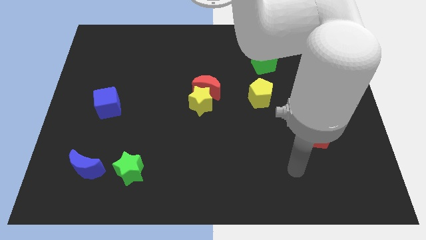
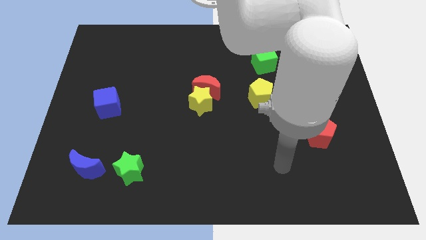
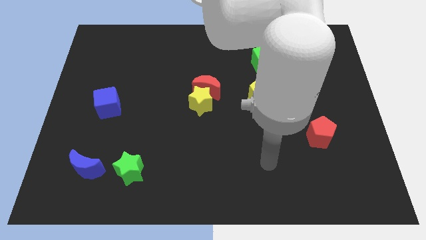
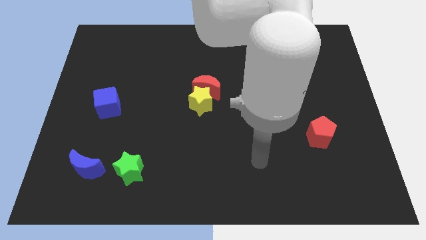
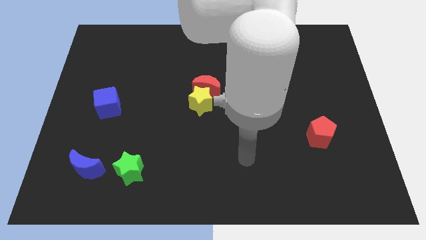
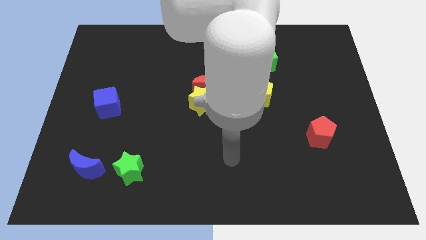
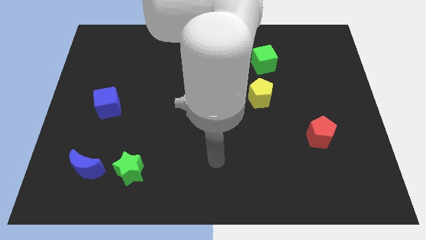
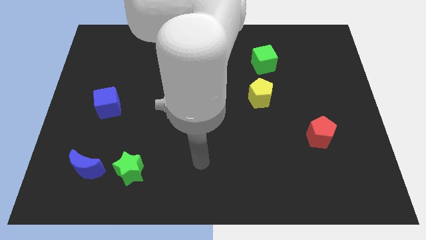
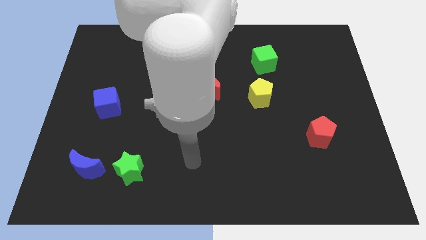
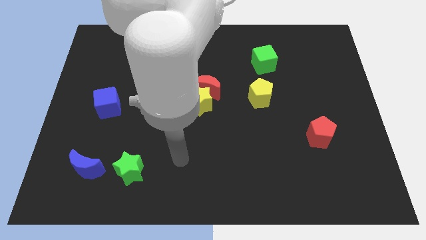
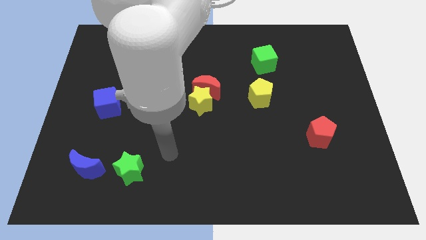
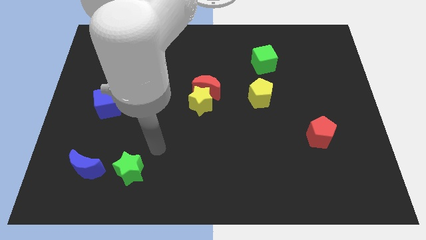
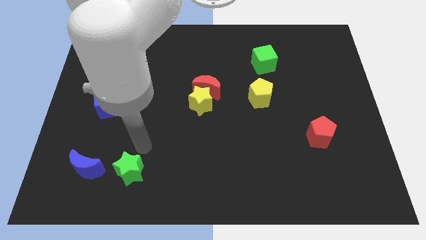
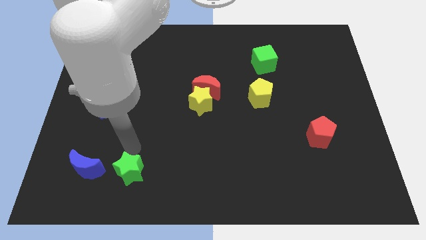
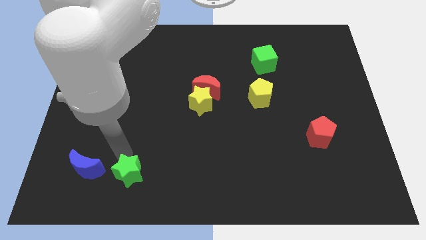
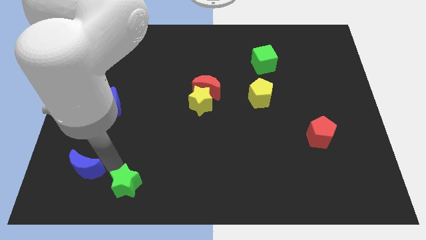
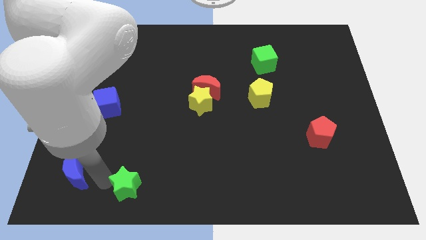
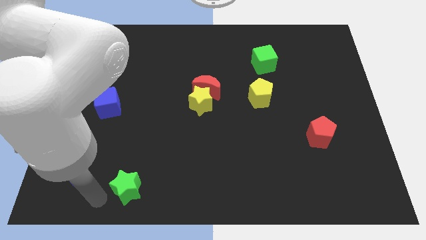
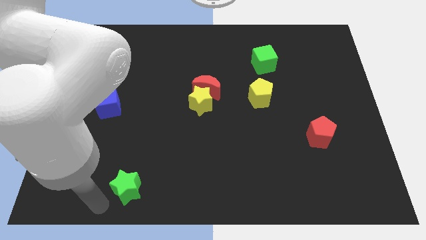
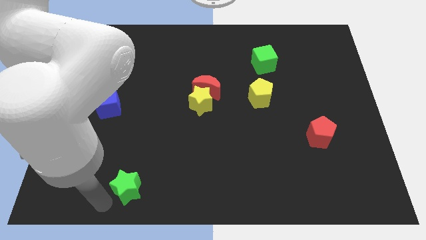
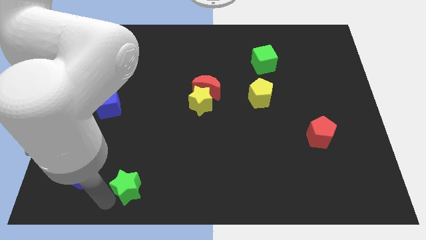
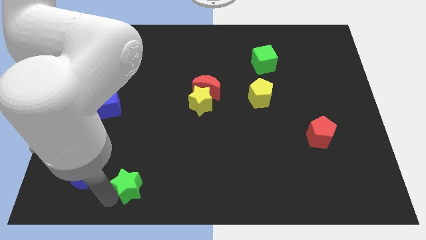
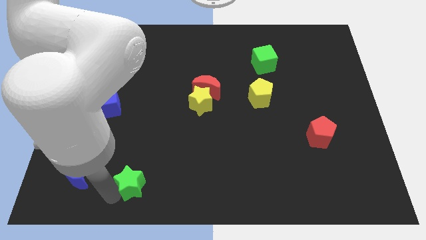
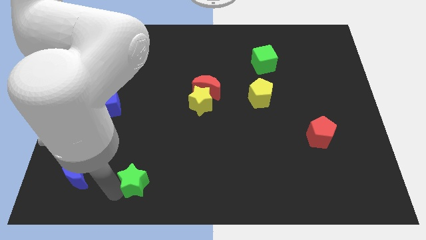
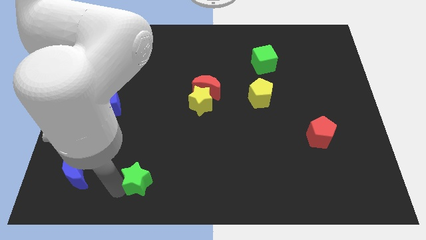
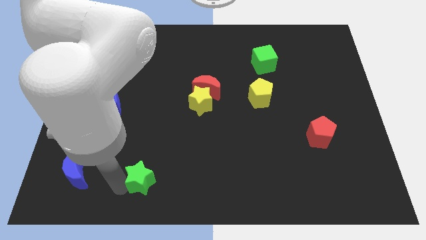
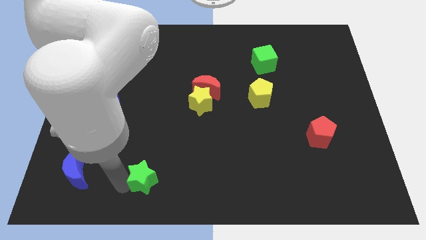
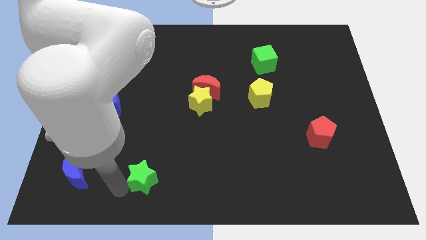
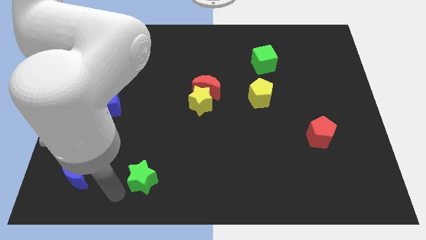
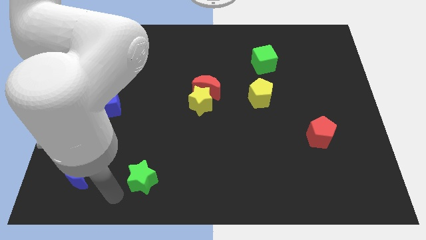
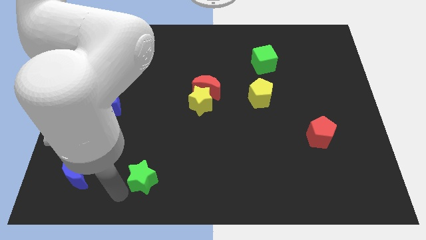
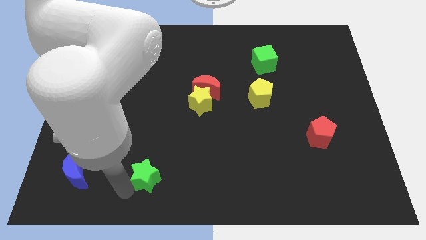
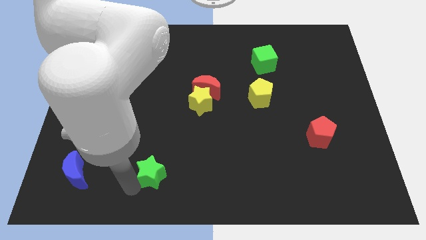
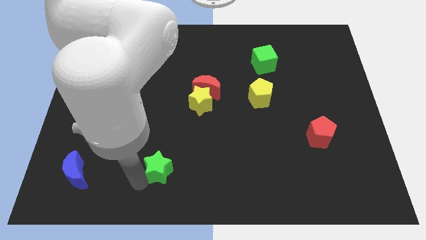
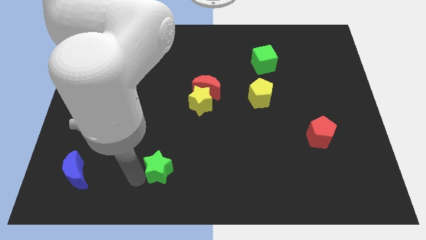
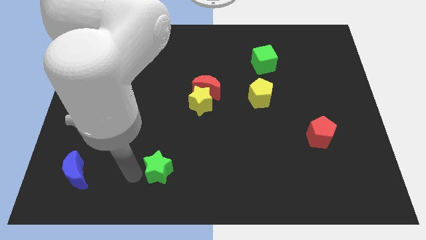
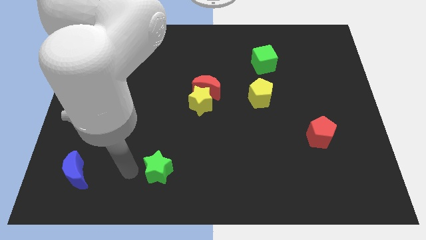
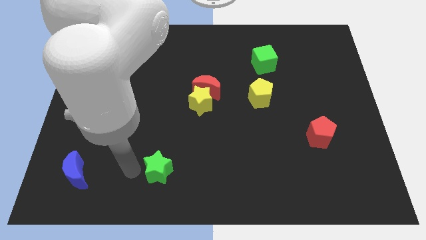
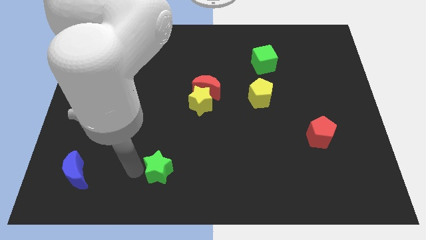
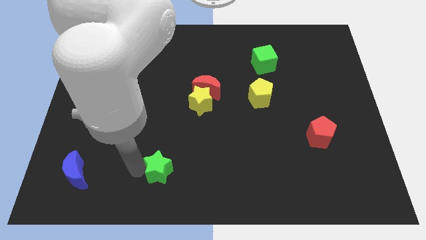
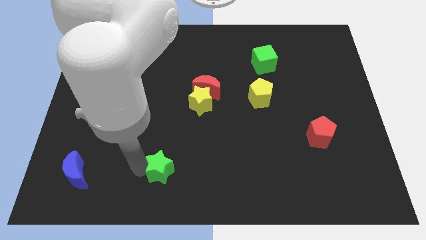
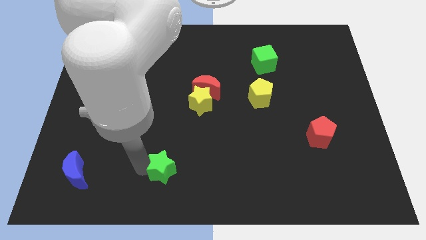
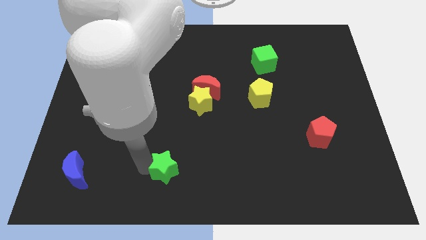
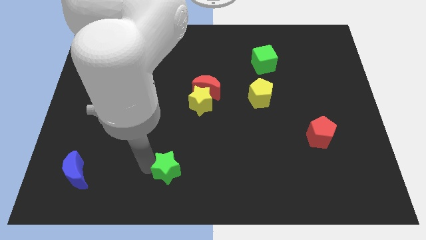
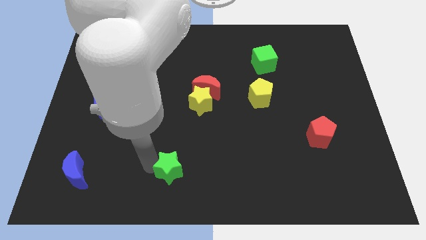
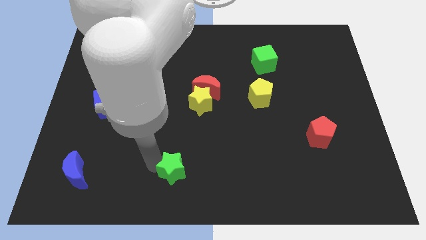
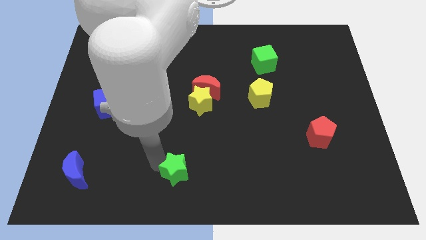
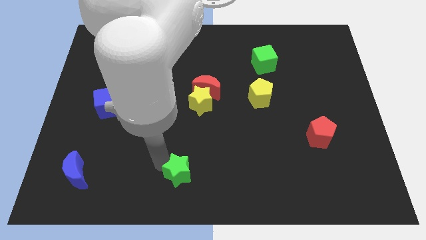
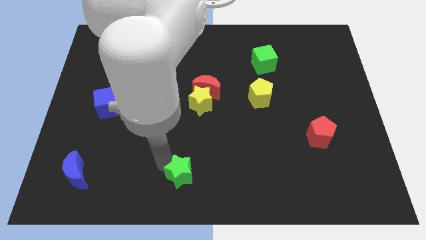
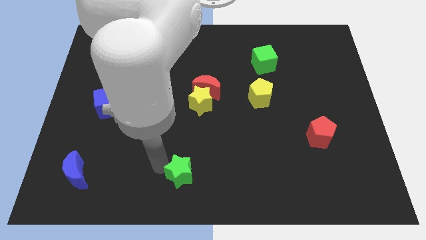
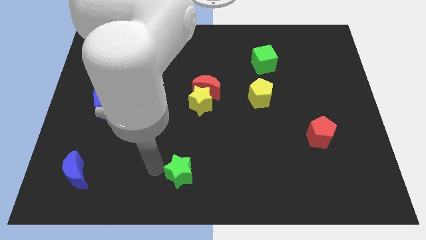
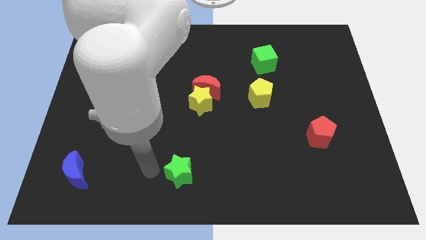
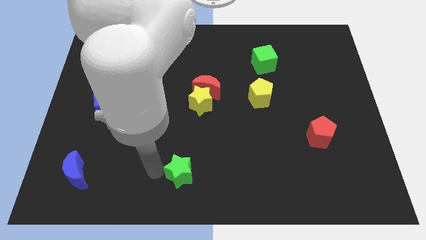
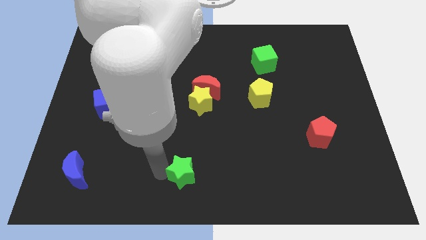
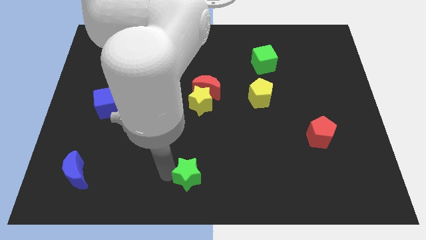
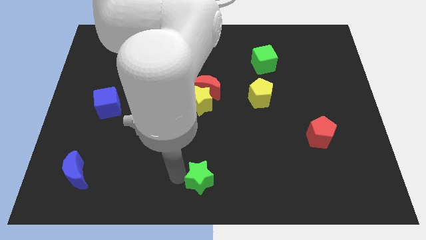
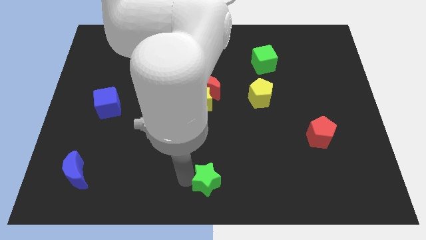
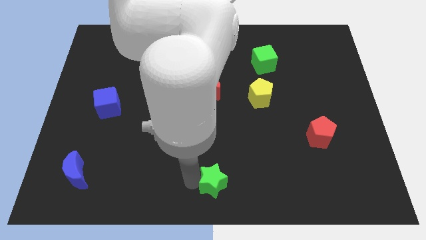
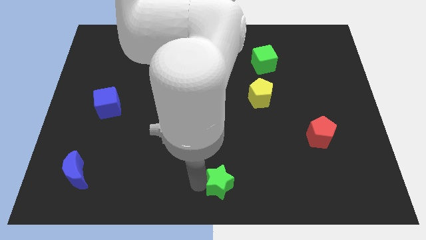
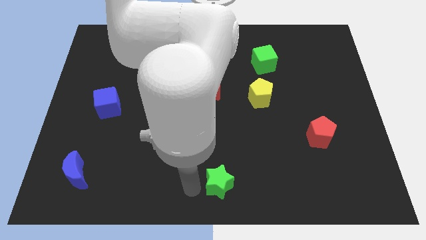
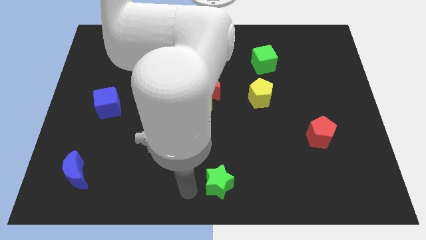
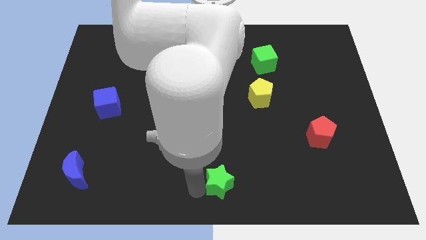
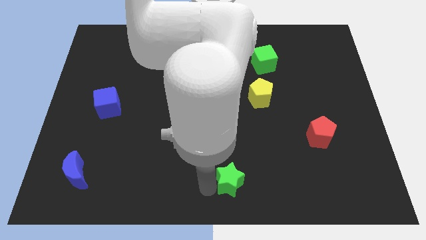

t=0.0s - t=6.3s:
push the green star to the right

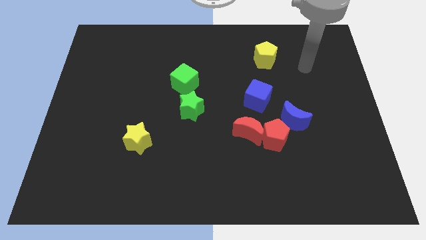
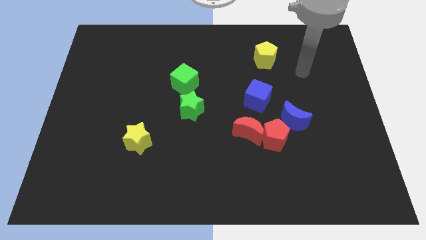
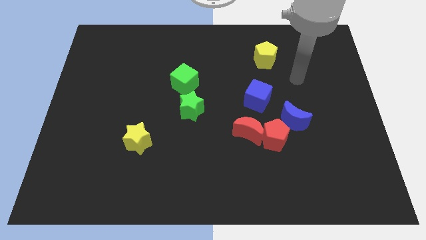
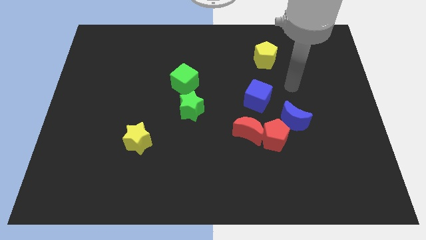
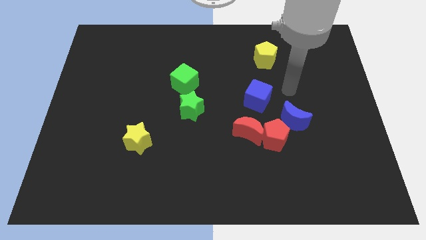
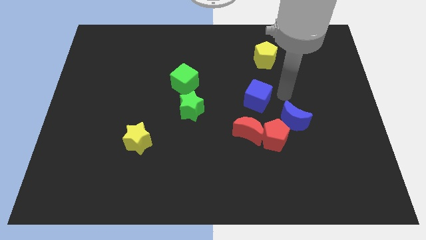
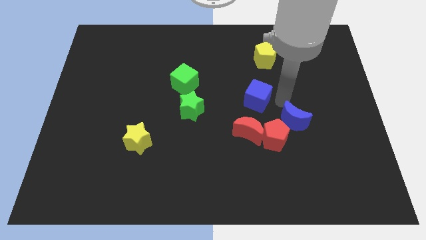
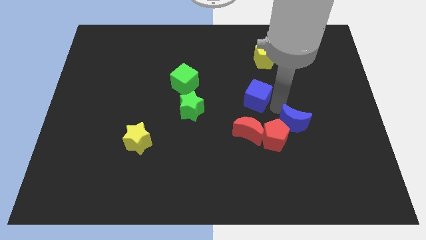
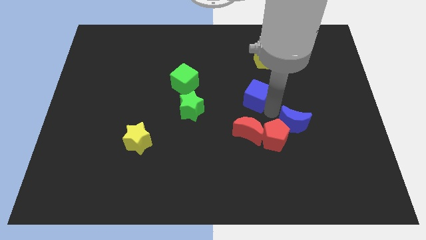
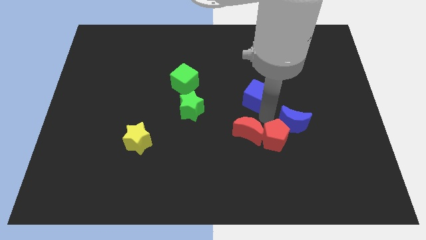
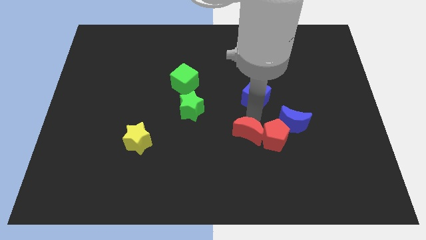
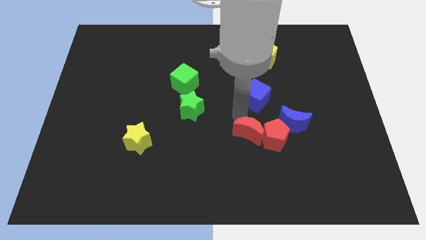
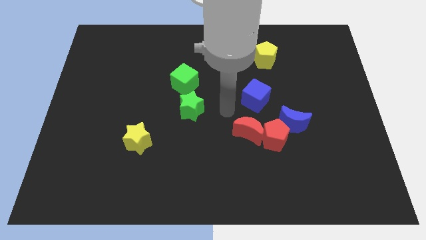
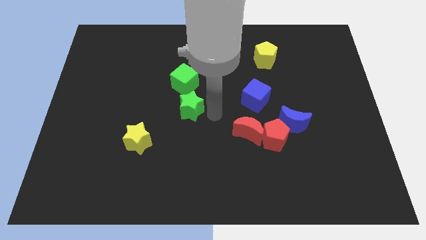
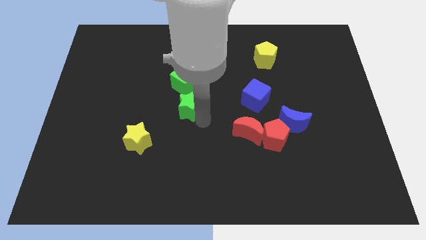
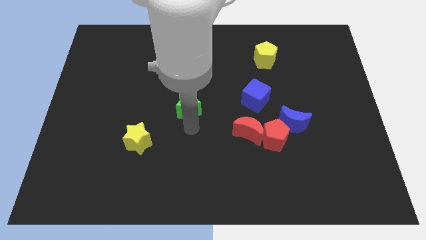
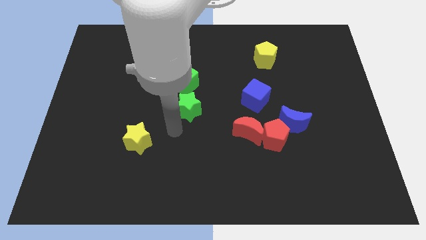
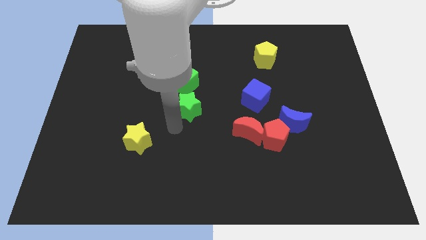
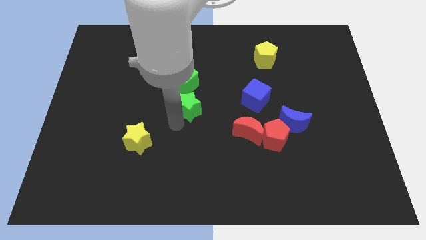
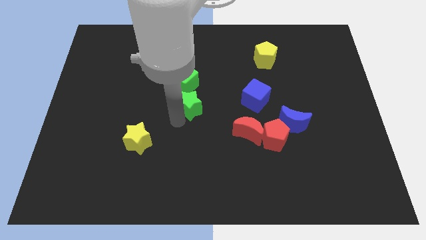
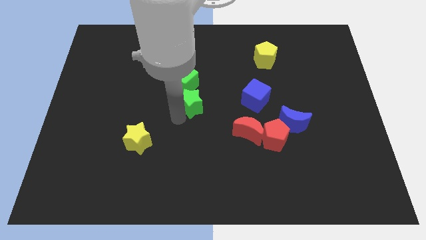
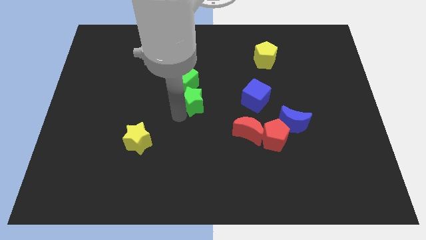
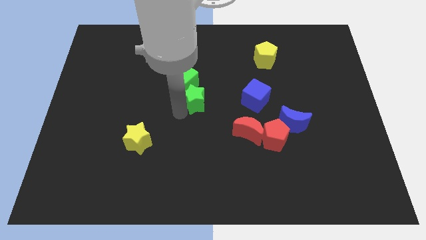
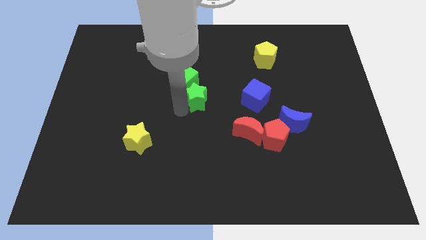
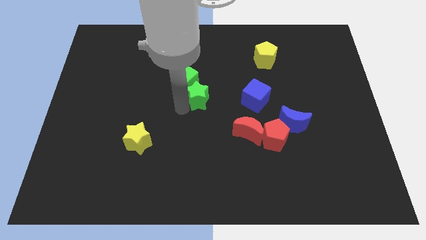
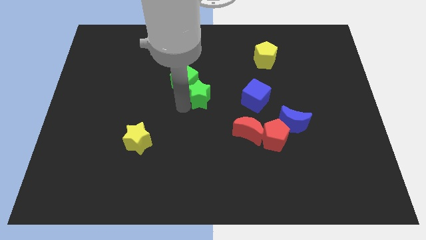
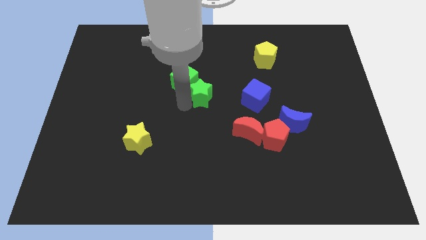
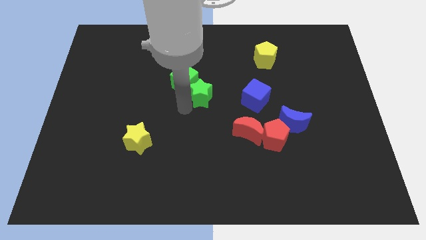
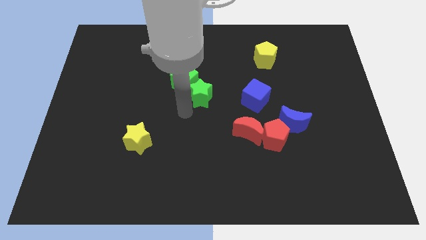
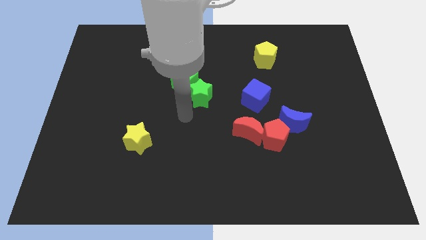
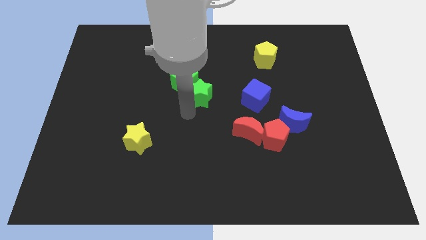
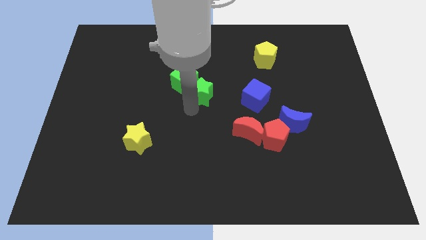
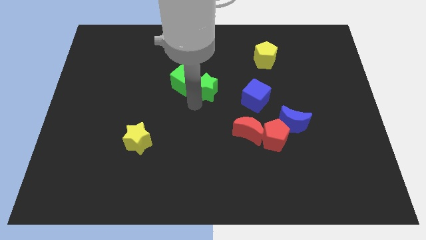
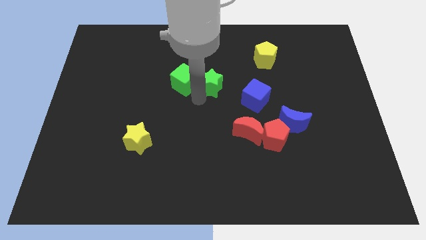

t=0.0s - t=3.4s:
slightly push the green star upwards and then right
